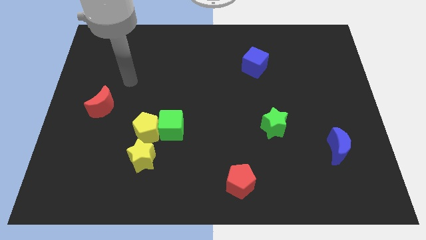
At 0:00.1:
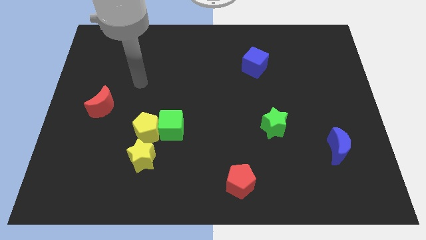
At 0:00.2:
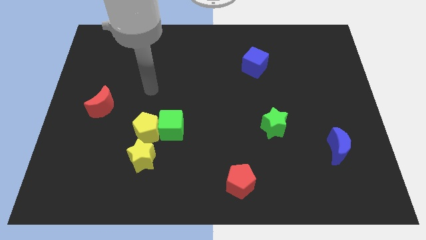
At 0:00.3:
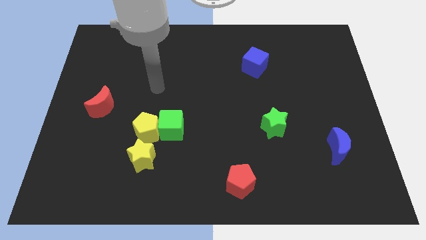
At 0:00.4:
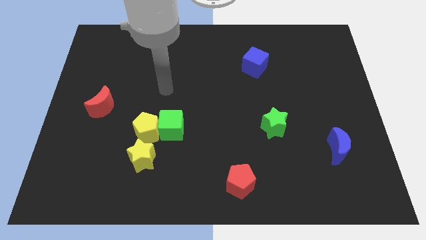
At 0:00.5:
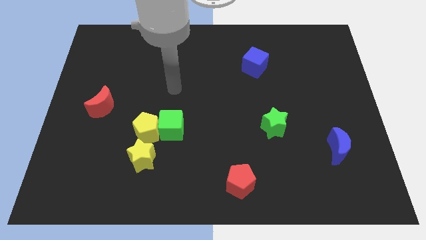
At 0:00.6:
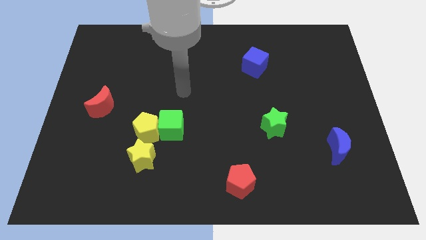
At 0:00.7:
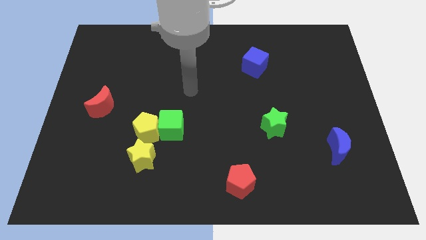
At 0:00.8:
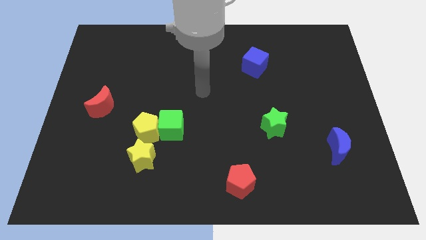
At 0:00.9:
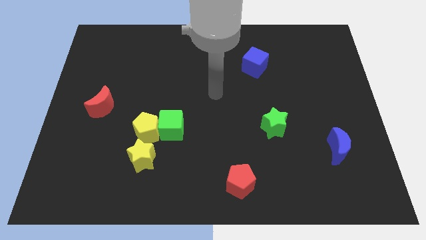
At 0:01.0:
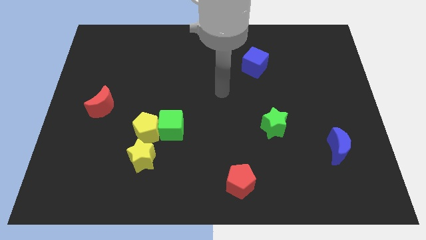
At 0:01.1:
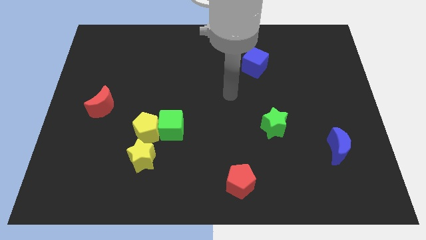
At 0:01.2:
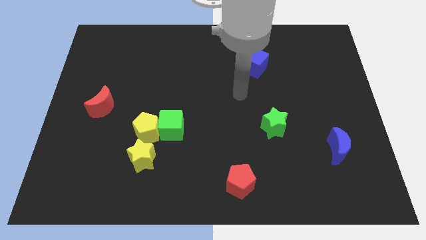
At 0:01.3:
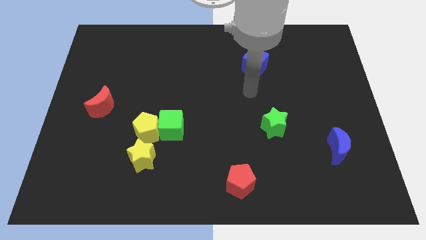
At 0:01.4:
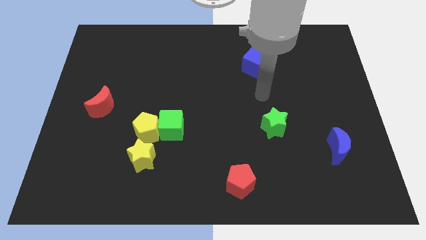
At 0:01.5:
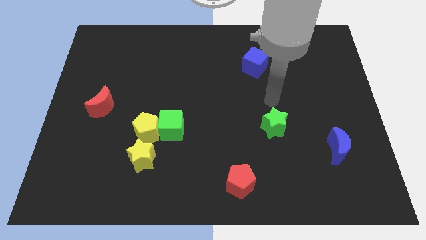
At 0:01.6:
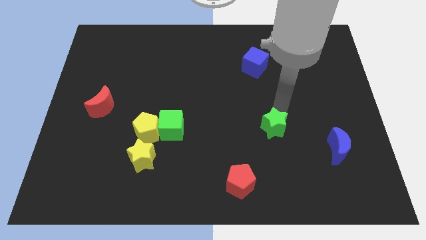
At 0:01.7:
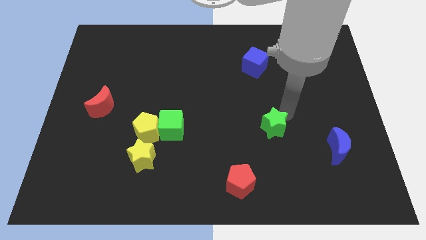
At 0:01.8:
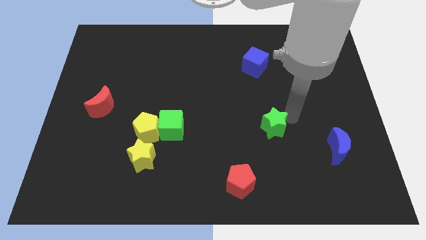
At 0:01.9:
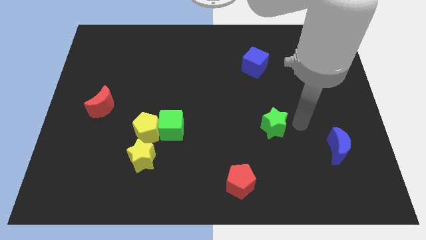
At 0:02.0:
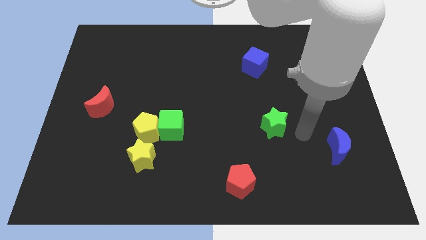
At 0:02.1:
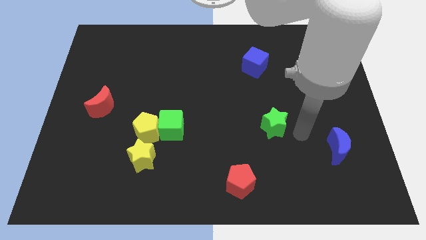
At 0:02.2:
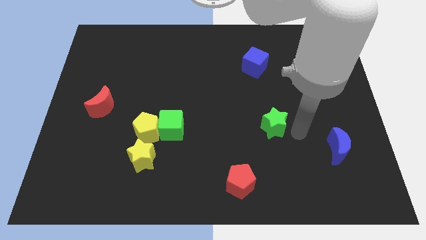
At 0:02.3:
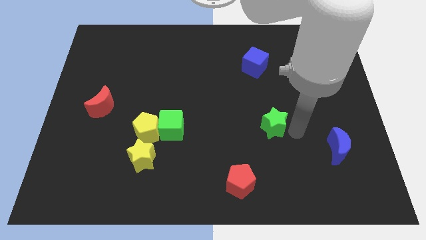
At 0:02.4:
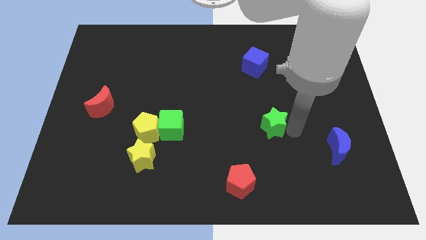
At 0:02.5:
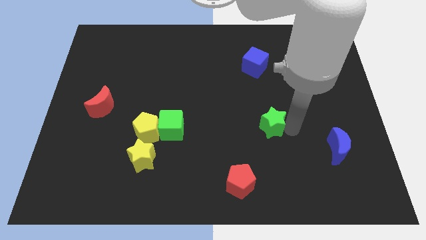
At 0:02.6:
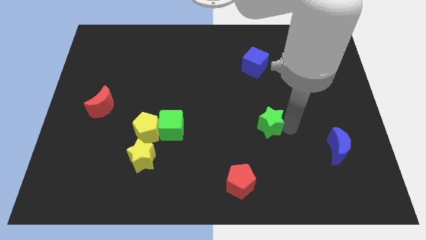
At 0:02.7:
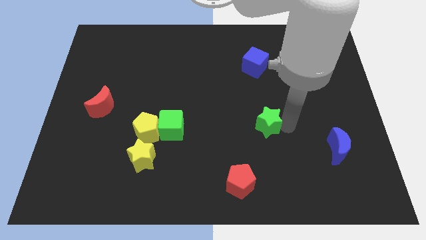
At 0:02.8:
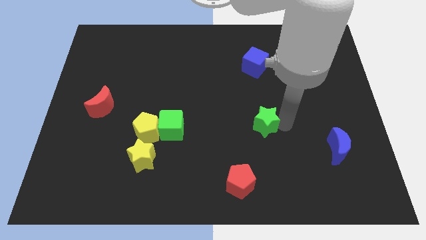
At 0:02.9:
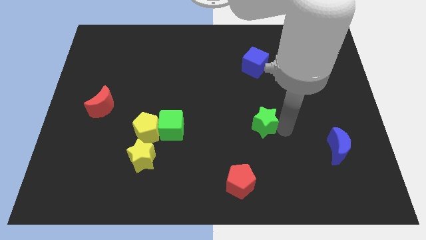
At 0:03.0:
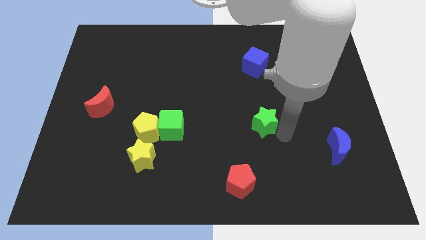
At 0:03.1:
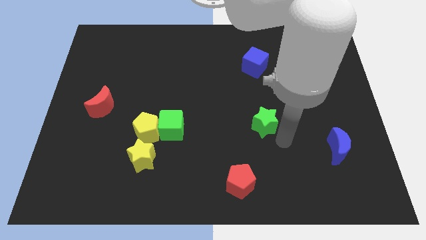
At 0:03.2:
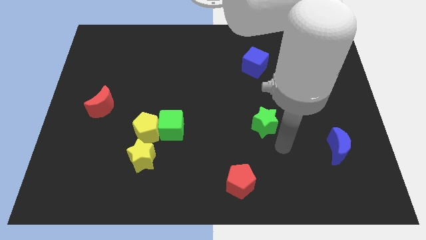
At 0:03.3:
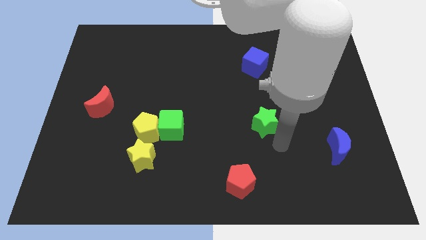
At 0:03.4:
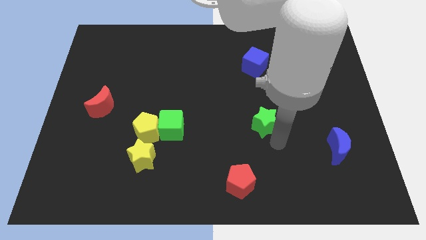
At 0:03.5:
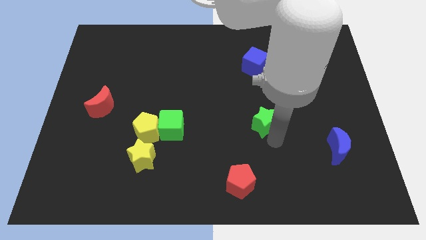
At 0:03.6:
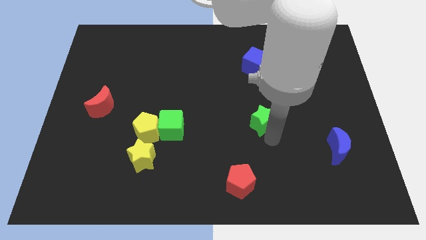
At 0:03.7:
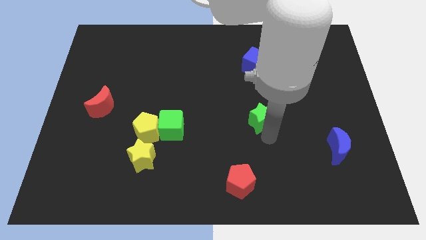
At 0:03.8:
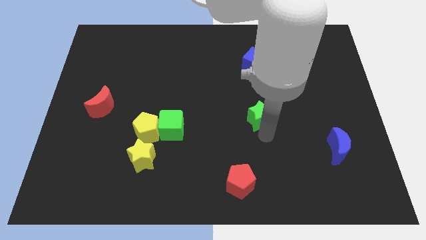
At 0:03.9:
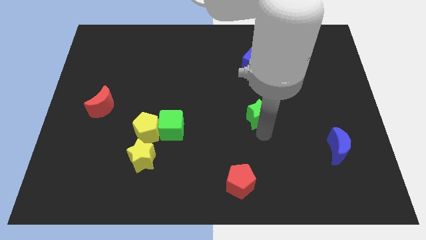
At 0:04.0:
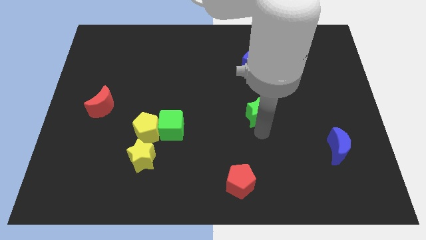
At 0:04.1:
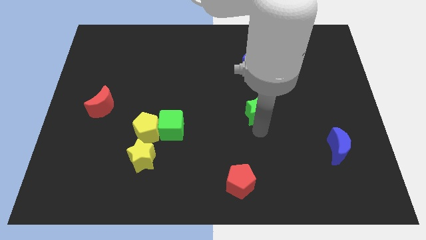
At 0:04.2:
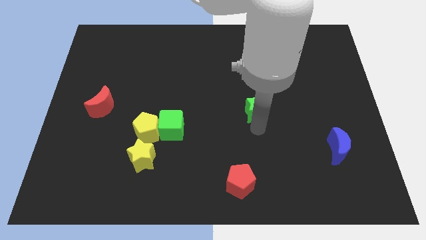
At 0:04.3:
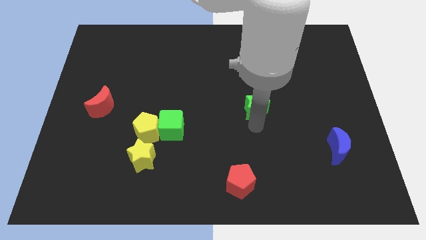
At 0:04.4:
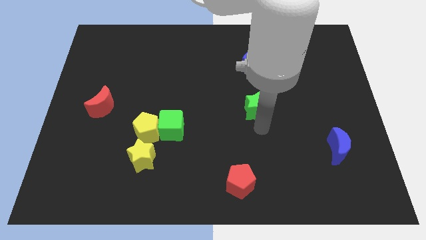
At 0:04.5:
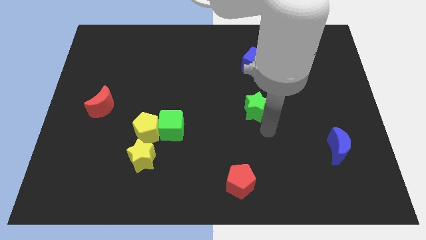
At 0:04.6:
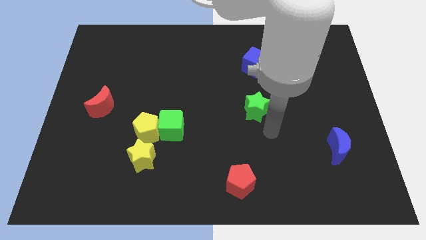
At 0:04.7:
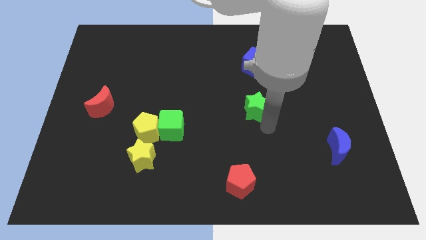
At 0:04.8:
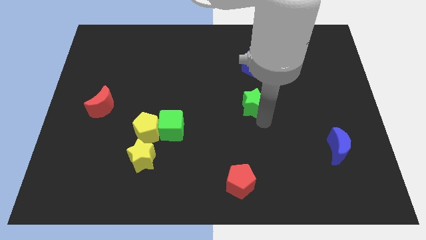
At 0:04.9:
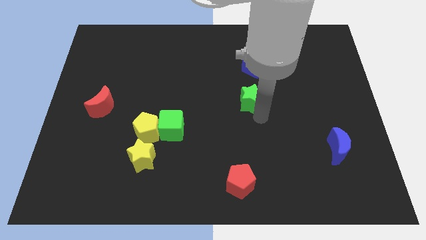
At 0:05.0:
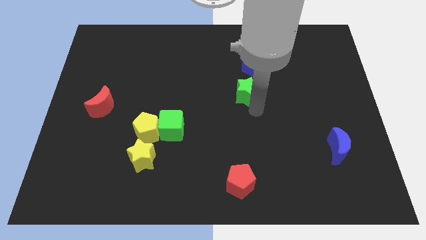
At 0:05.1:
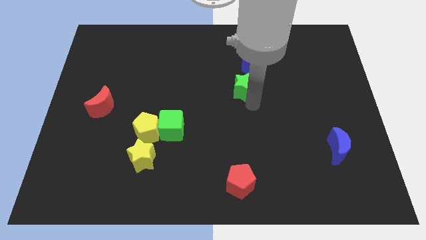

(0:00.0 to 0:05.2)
slide the green star to the bottom left side of the blue cube

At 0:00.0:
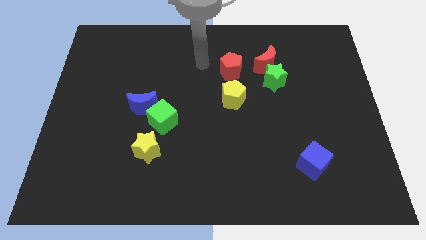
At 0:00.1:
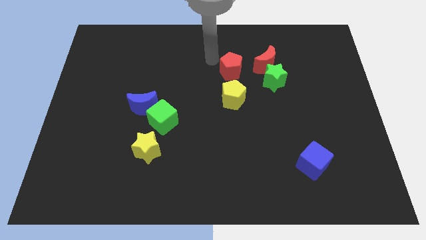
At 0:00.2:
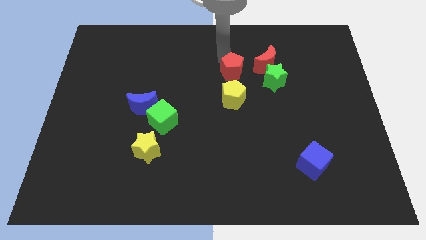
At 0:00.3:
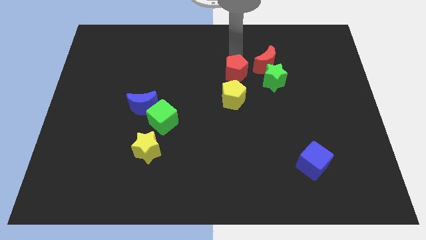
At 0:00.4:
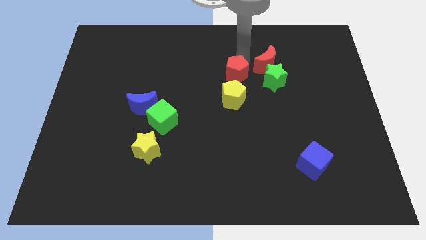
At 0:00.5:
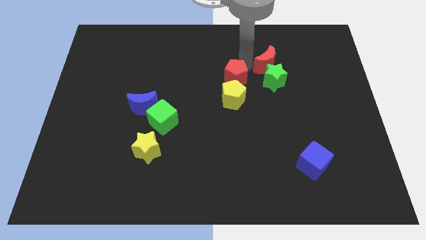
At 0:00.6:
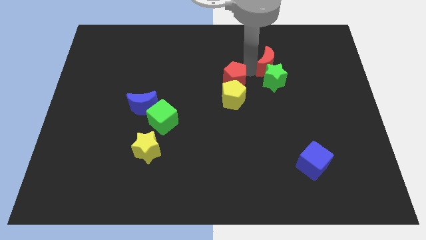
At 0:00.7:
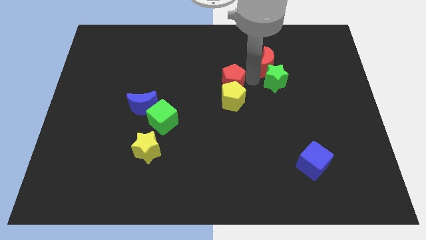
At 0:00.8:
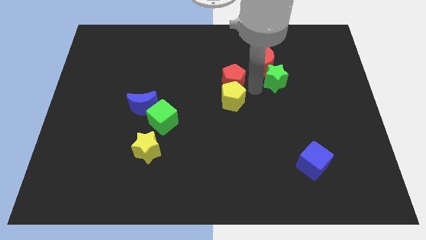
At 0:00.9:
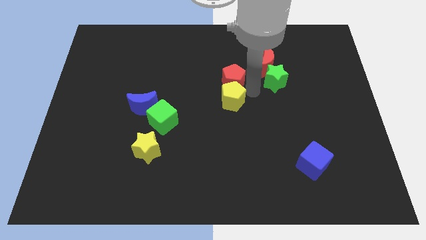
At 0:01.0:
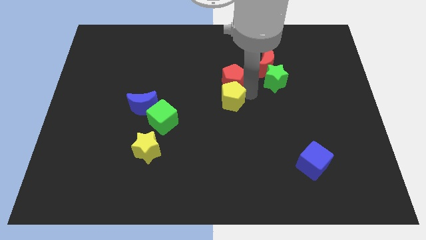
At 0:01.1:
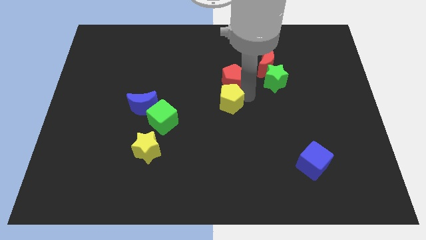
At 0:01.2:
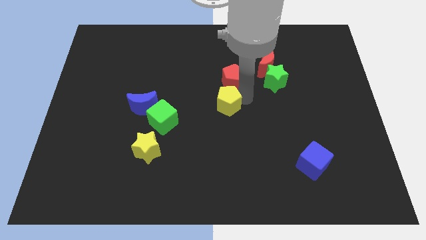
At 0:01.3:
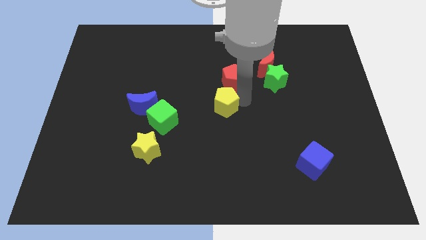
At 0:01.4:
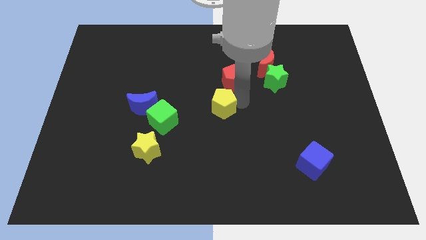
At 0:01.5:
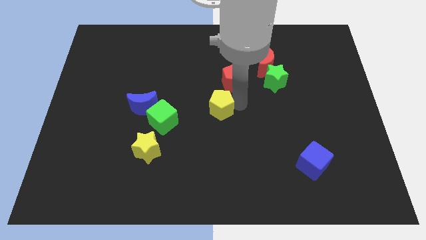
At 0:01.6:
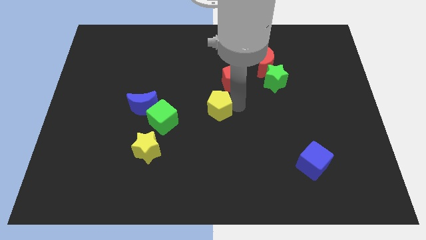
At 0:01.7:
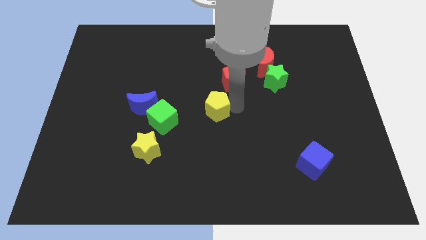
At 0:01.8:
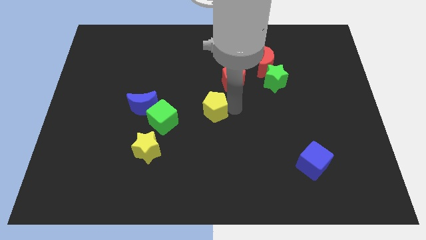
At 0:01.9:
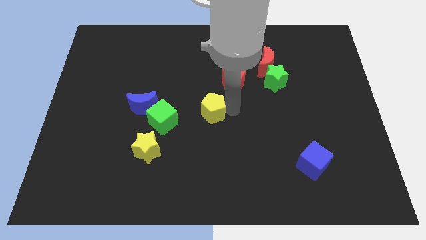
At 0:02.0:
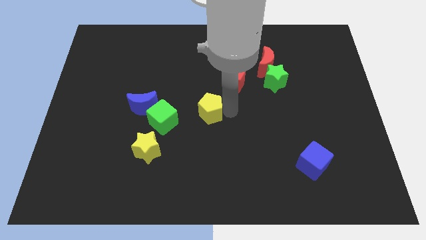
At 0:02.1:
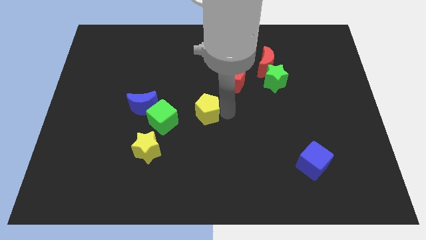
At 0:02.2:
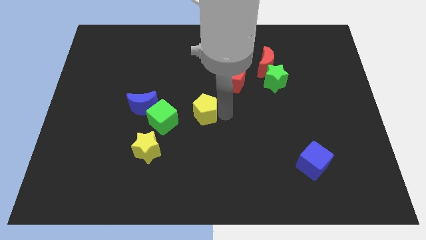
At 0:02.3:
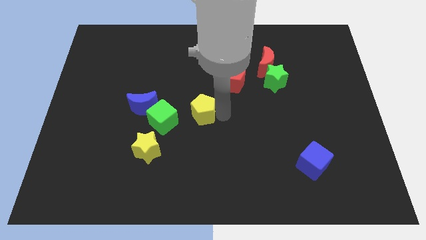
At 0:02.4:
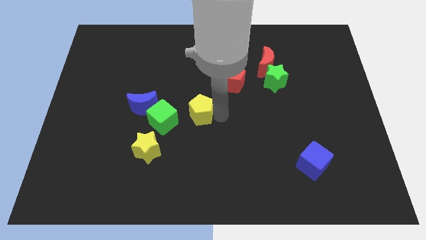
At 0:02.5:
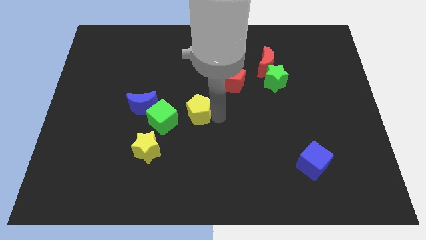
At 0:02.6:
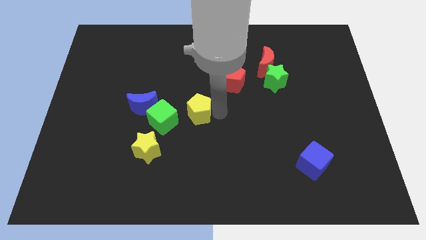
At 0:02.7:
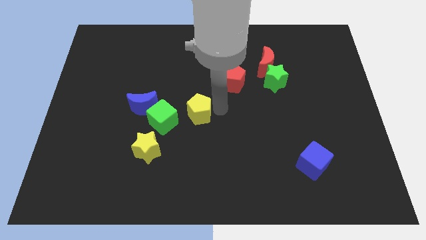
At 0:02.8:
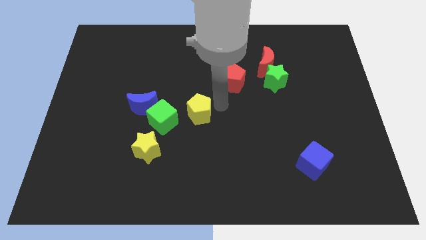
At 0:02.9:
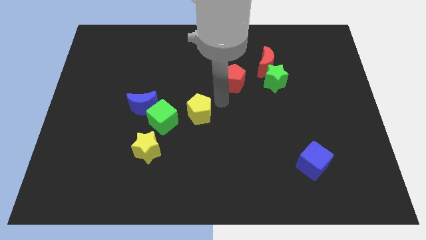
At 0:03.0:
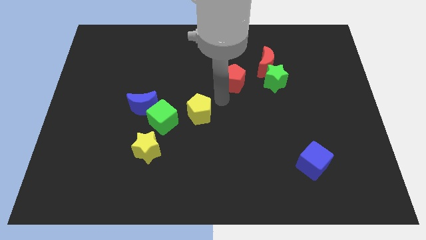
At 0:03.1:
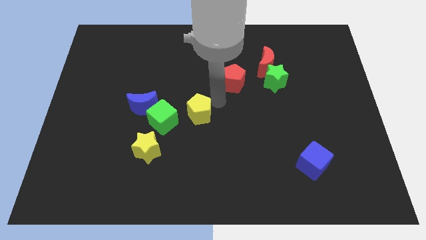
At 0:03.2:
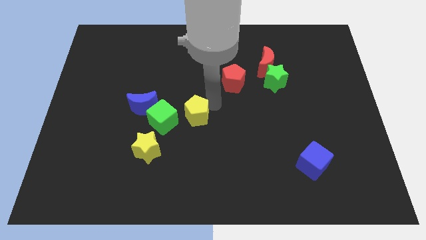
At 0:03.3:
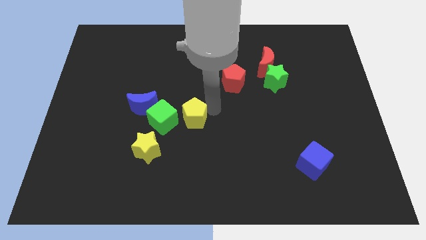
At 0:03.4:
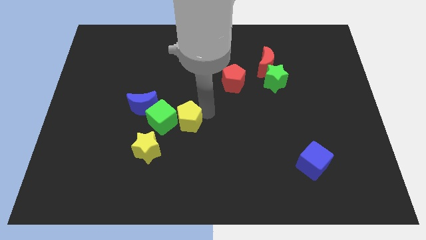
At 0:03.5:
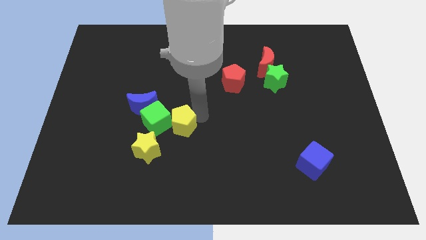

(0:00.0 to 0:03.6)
slide the yellow pentagon to the bottom right of the blue moon
